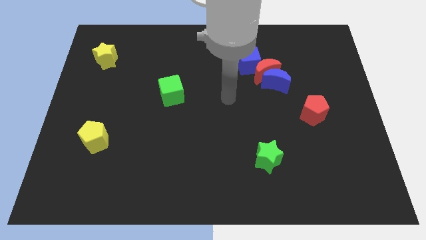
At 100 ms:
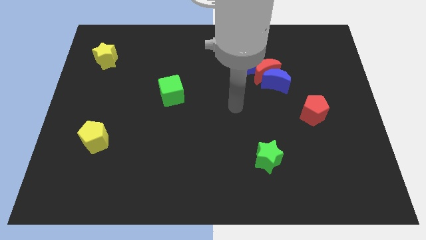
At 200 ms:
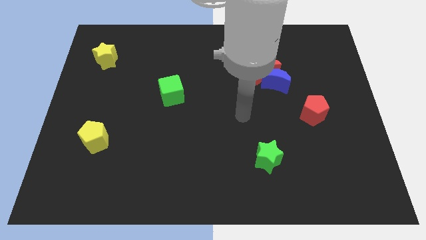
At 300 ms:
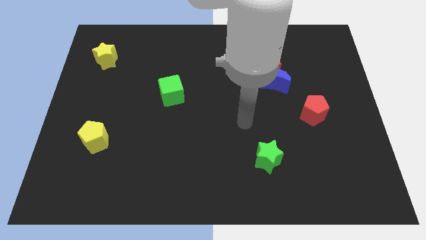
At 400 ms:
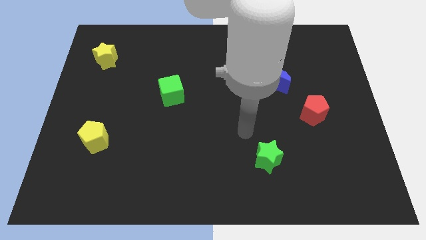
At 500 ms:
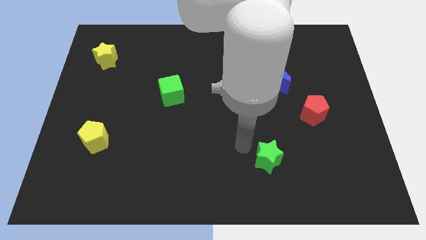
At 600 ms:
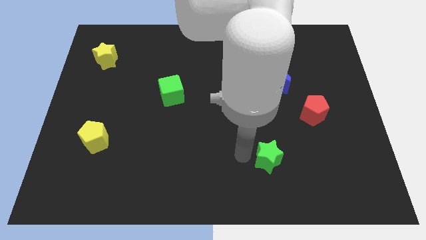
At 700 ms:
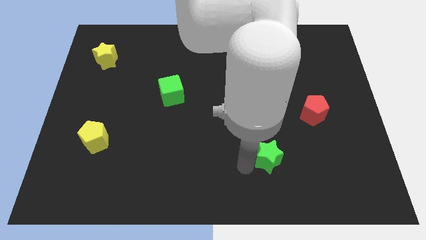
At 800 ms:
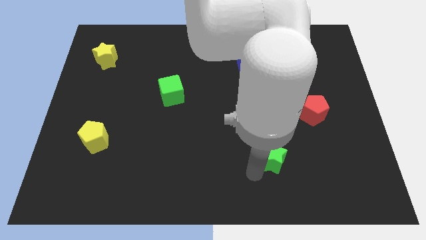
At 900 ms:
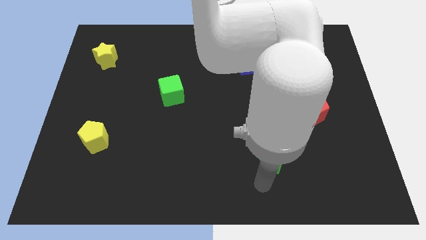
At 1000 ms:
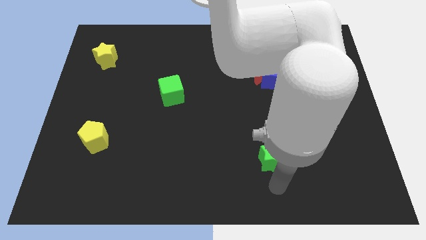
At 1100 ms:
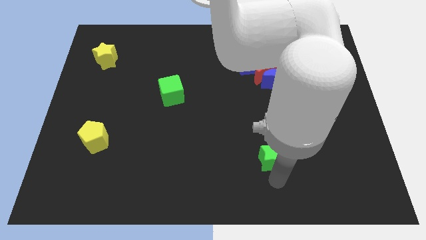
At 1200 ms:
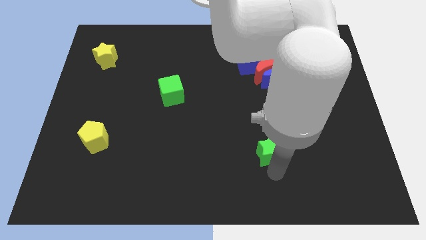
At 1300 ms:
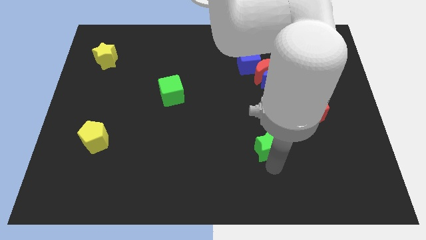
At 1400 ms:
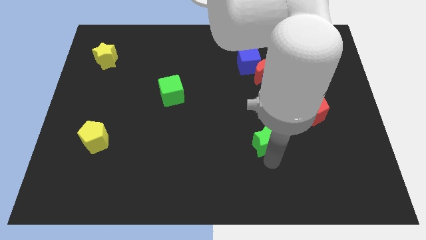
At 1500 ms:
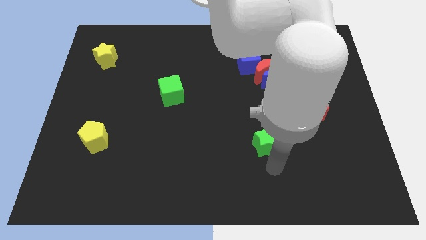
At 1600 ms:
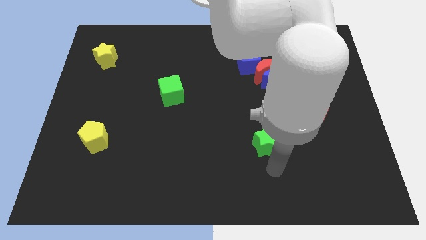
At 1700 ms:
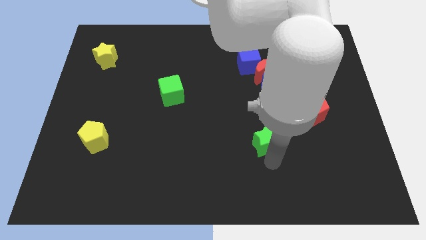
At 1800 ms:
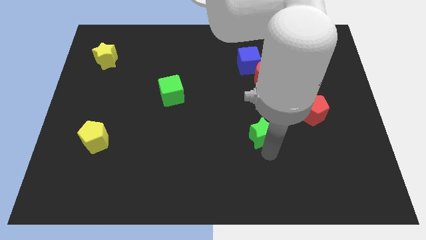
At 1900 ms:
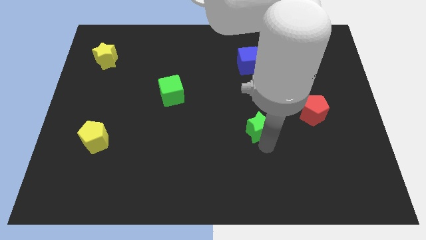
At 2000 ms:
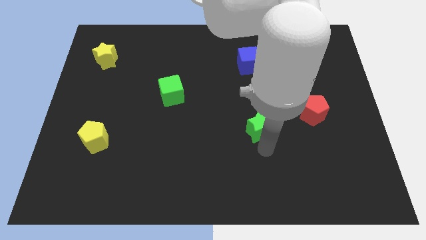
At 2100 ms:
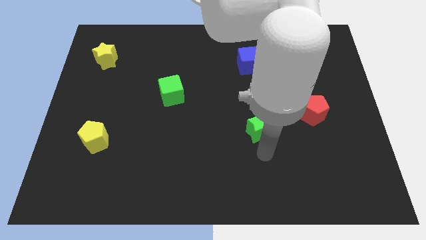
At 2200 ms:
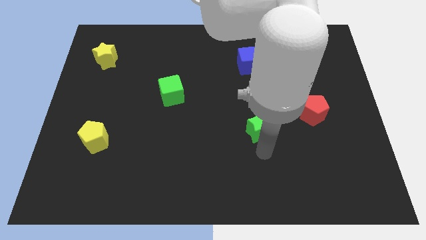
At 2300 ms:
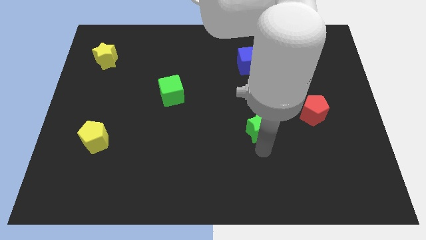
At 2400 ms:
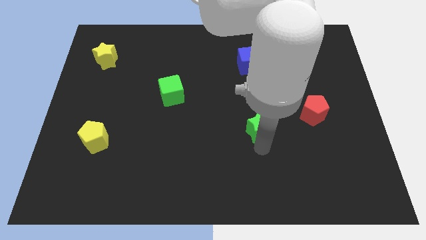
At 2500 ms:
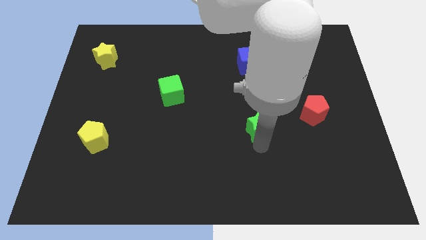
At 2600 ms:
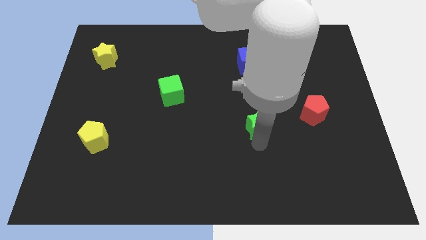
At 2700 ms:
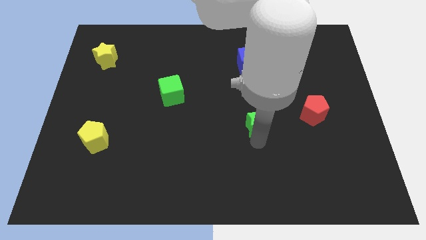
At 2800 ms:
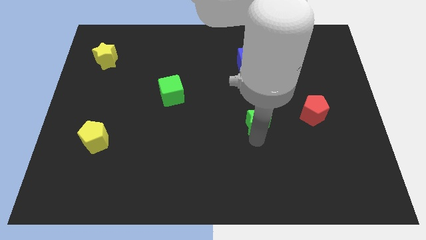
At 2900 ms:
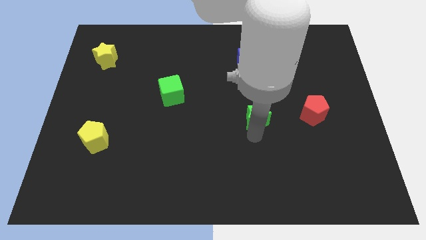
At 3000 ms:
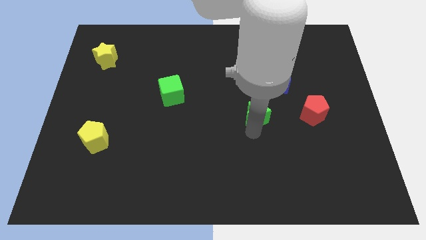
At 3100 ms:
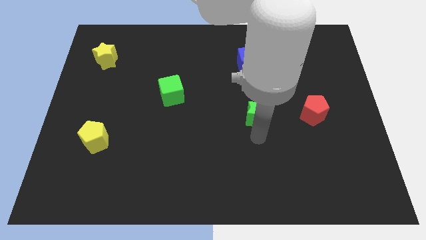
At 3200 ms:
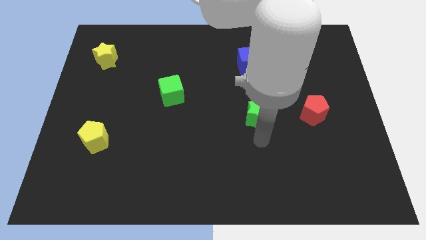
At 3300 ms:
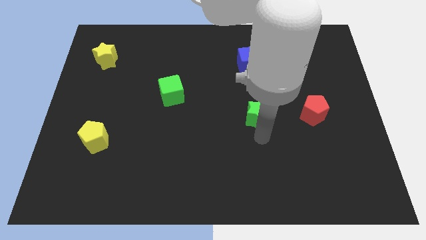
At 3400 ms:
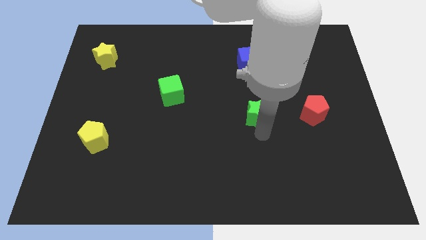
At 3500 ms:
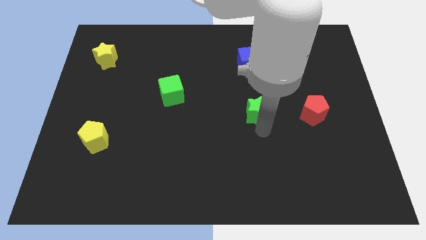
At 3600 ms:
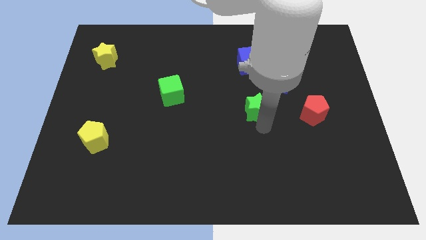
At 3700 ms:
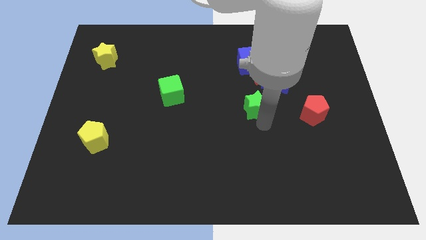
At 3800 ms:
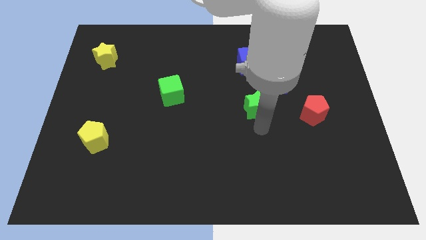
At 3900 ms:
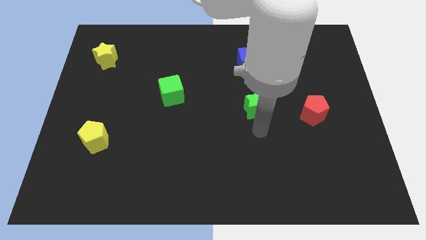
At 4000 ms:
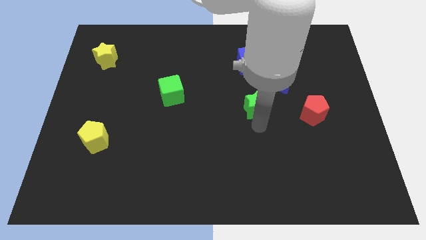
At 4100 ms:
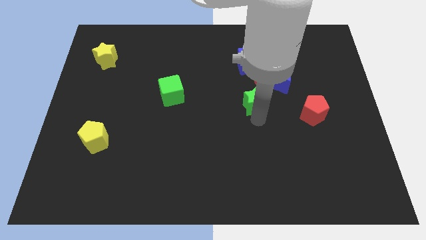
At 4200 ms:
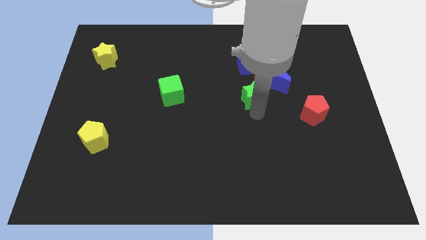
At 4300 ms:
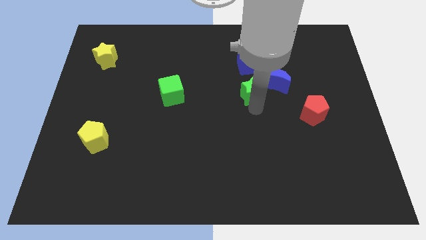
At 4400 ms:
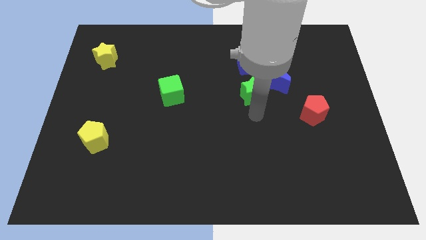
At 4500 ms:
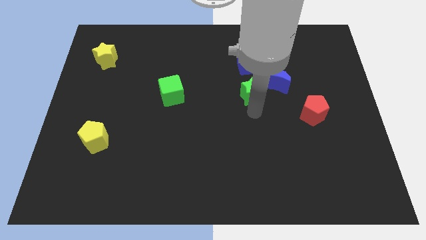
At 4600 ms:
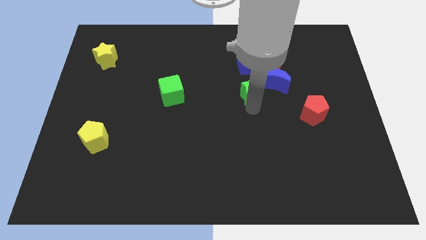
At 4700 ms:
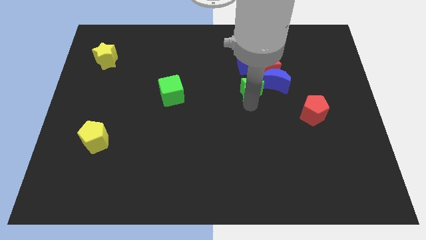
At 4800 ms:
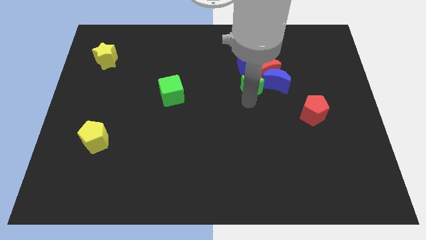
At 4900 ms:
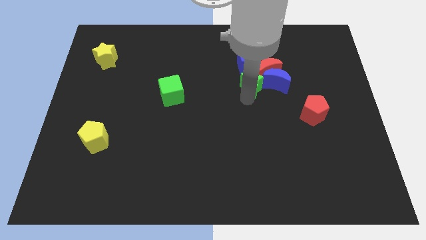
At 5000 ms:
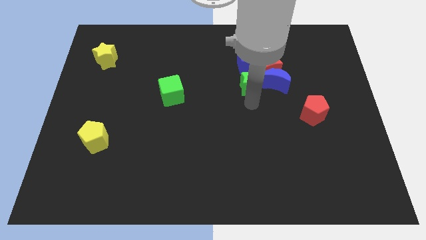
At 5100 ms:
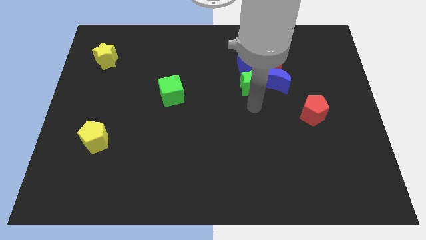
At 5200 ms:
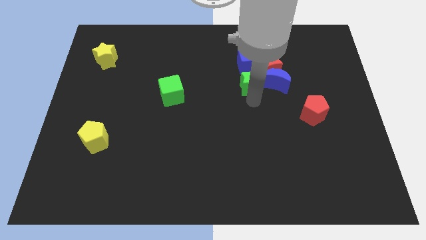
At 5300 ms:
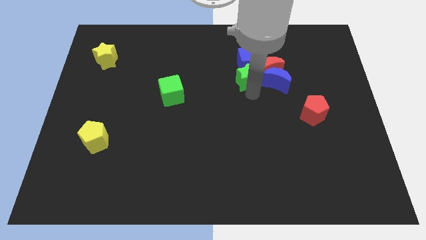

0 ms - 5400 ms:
push the green star close to the blue cube

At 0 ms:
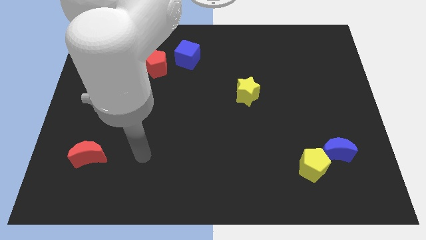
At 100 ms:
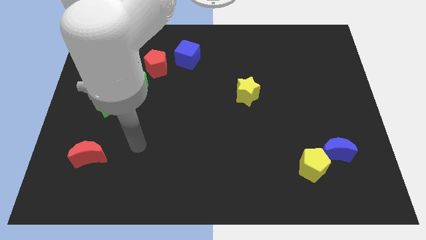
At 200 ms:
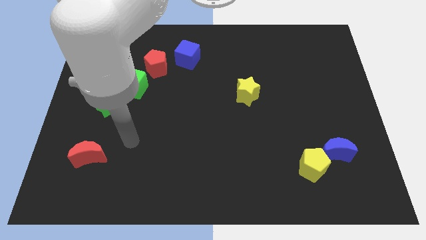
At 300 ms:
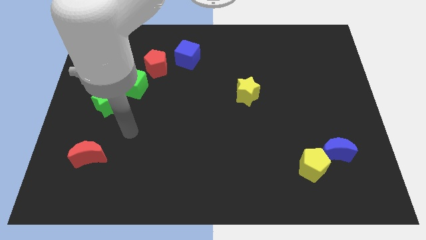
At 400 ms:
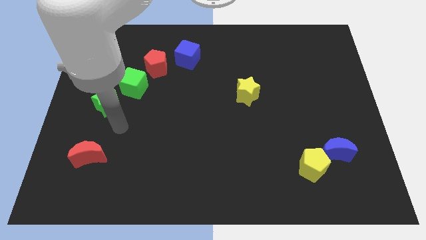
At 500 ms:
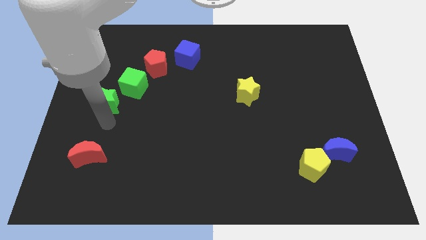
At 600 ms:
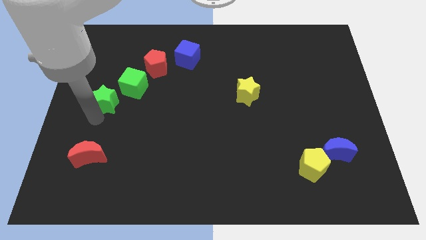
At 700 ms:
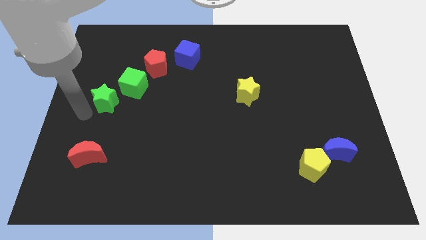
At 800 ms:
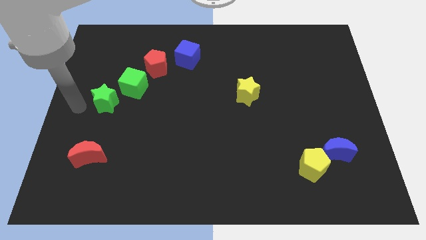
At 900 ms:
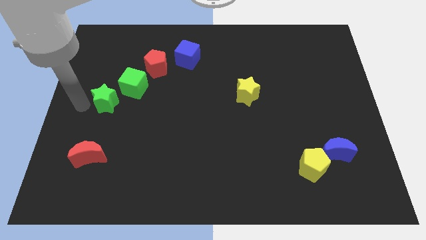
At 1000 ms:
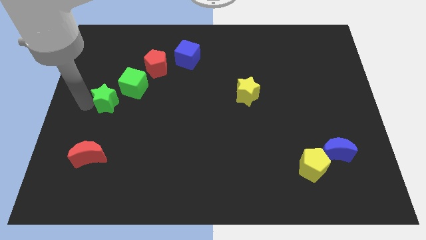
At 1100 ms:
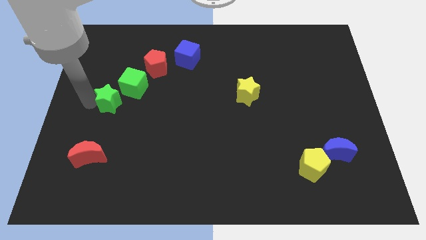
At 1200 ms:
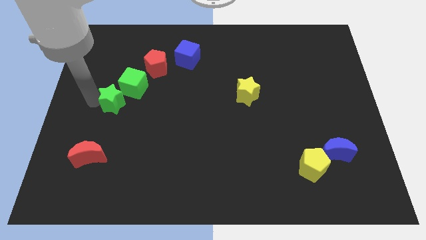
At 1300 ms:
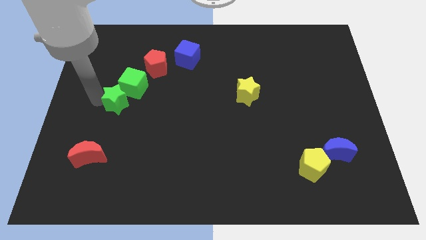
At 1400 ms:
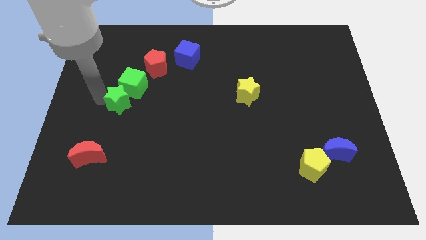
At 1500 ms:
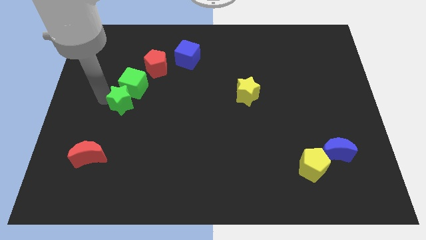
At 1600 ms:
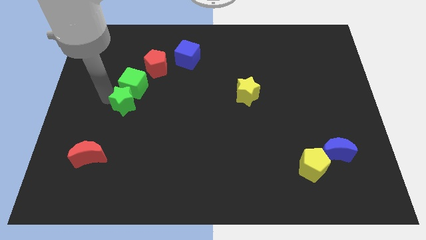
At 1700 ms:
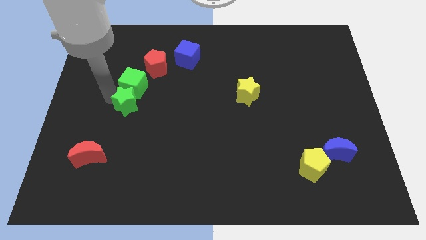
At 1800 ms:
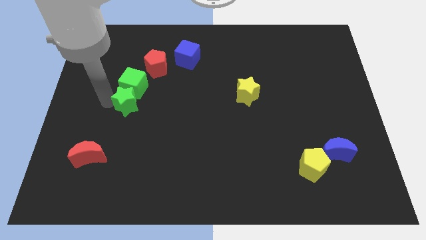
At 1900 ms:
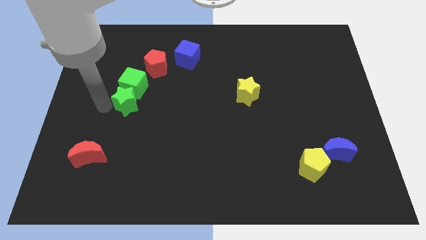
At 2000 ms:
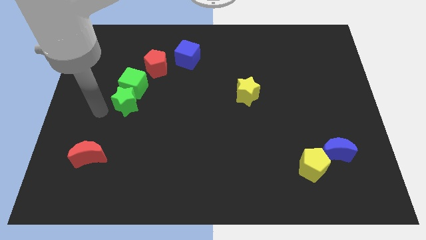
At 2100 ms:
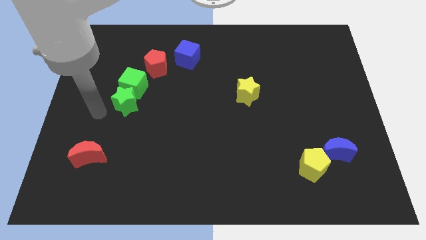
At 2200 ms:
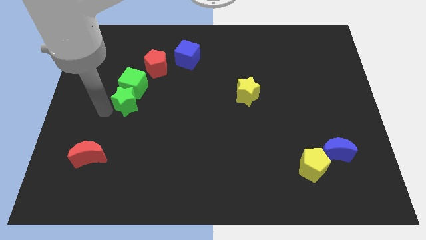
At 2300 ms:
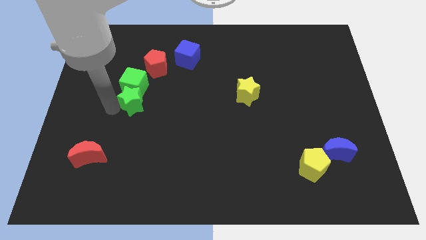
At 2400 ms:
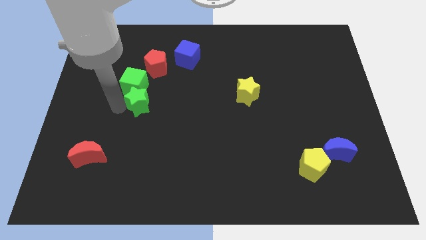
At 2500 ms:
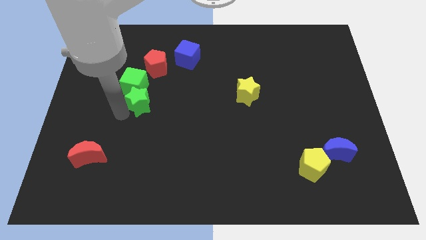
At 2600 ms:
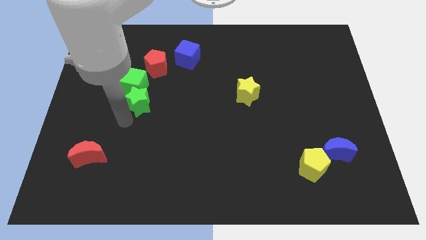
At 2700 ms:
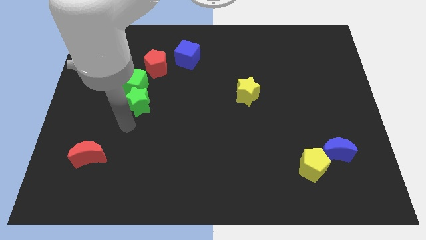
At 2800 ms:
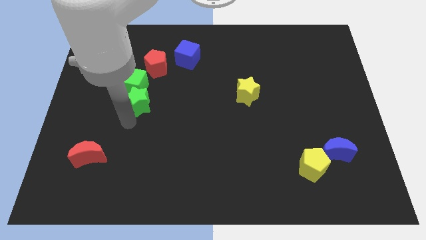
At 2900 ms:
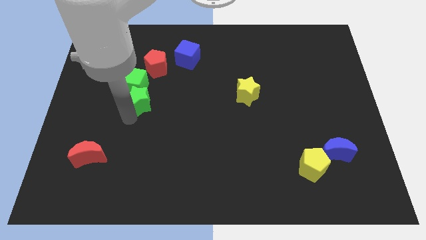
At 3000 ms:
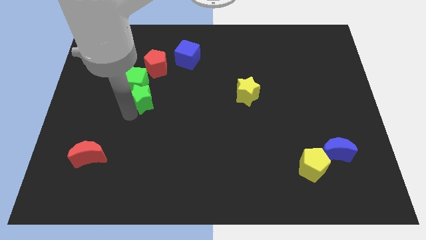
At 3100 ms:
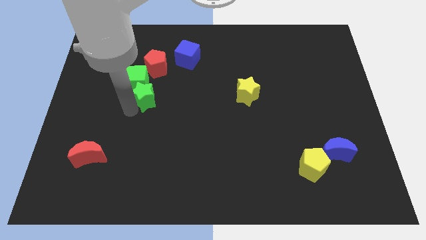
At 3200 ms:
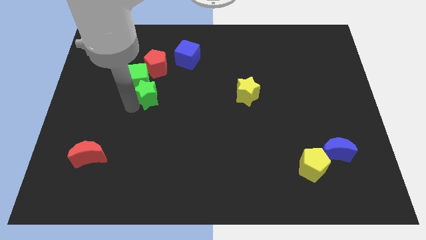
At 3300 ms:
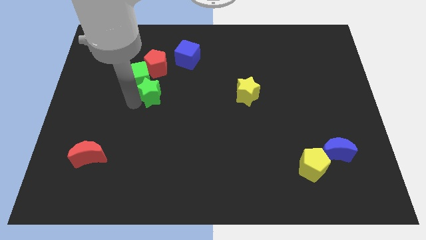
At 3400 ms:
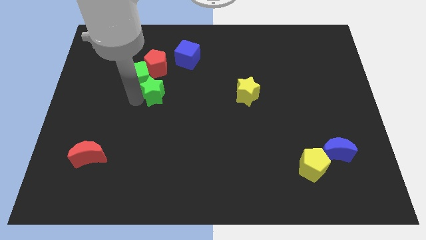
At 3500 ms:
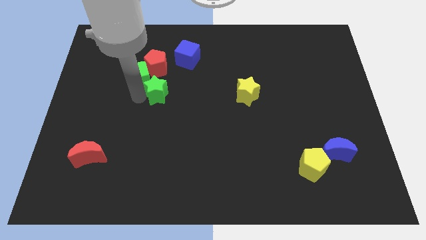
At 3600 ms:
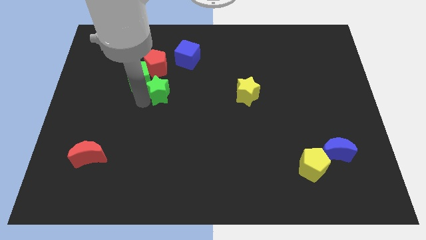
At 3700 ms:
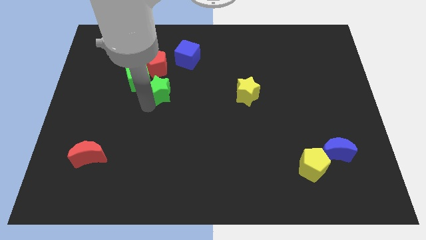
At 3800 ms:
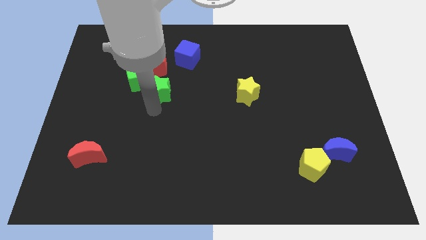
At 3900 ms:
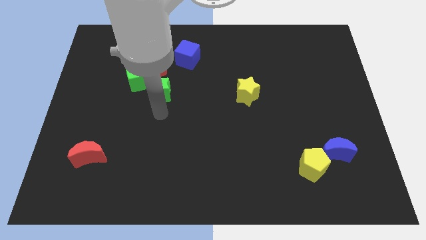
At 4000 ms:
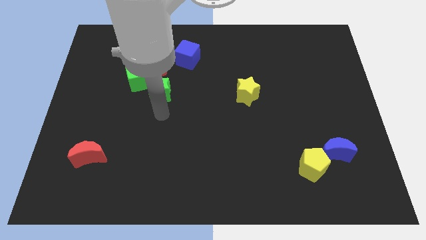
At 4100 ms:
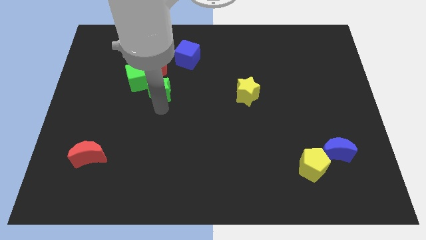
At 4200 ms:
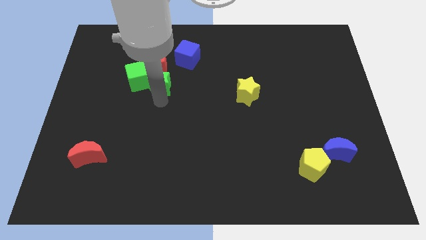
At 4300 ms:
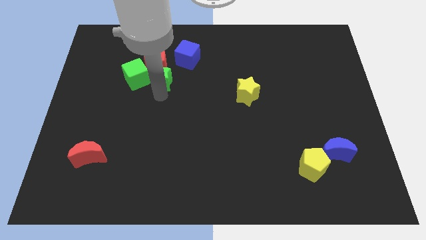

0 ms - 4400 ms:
put the green star towards the red pentagon
